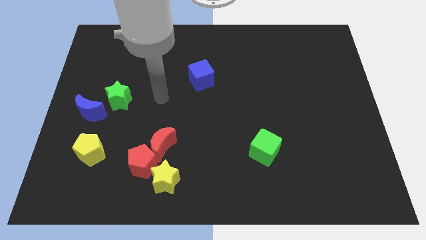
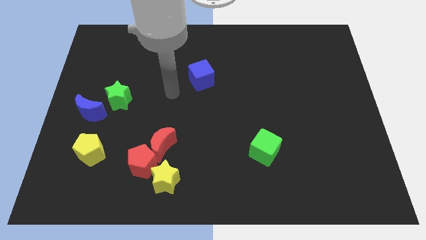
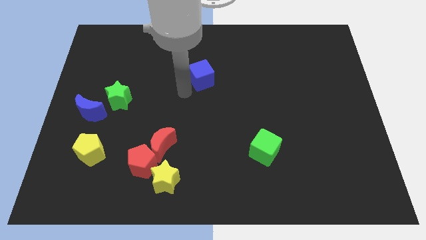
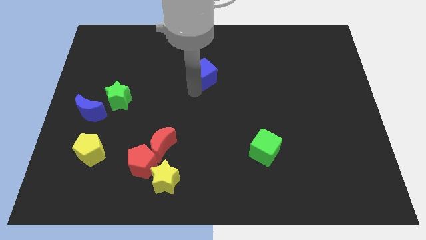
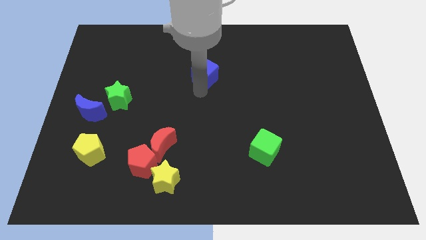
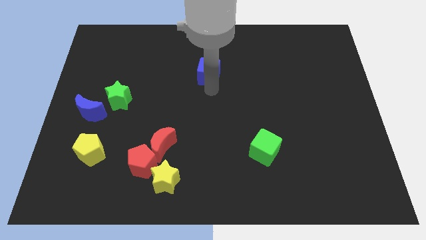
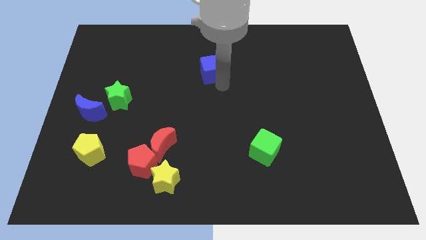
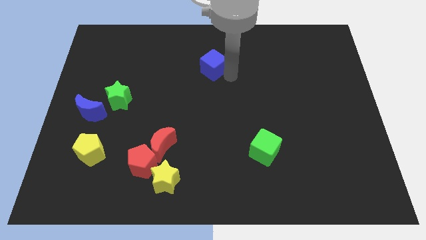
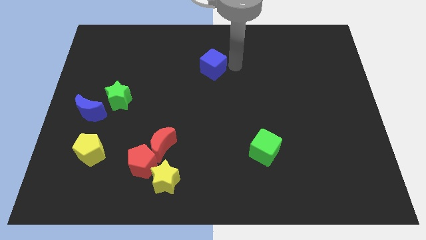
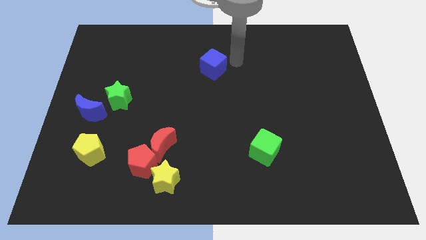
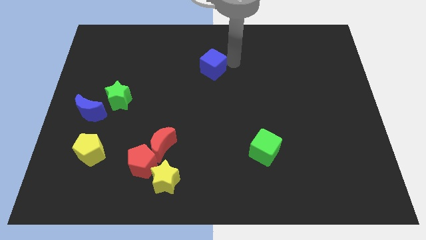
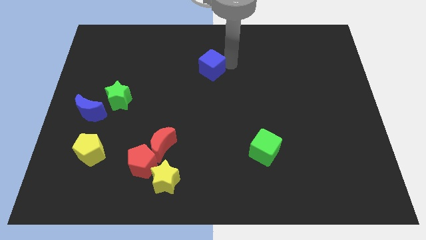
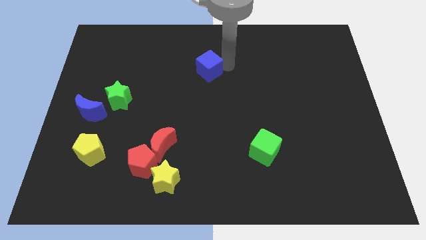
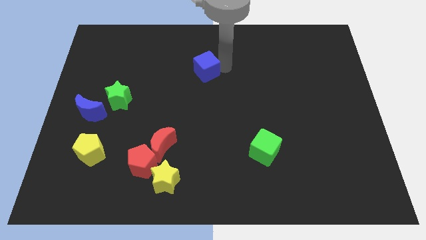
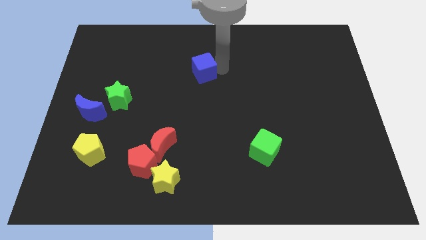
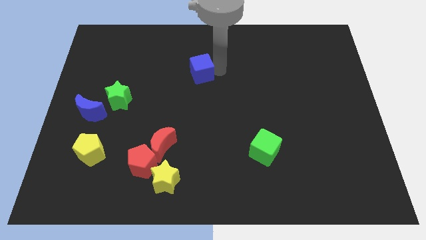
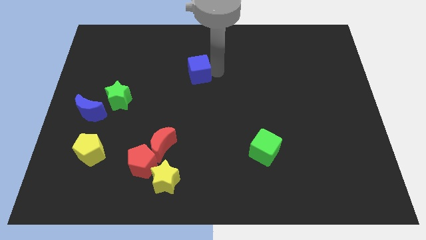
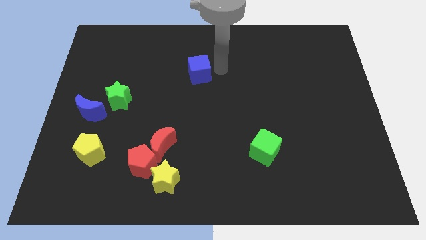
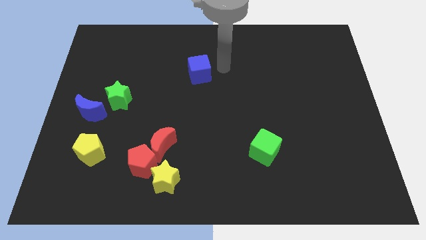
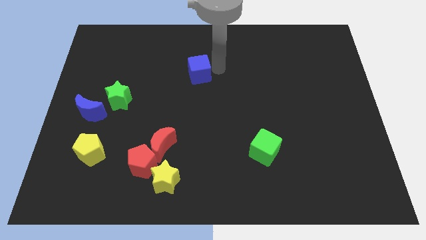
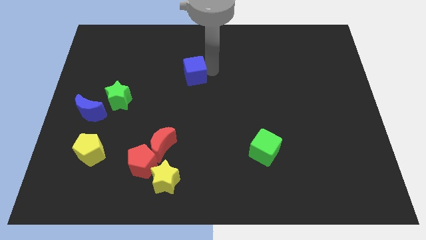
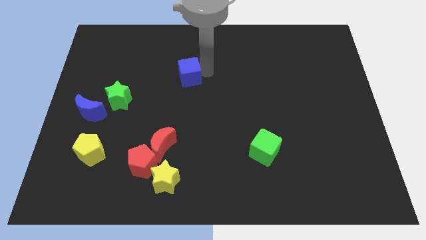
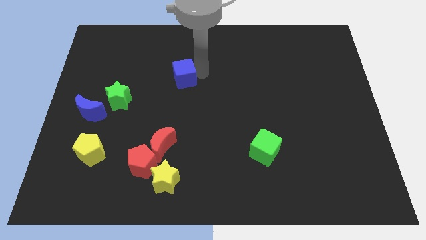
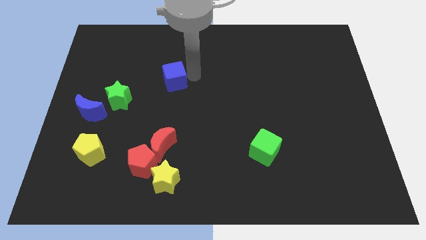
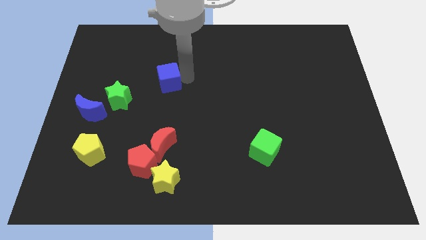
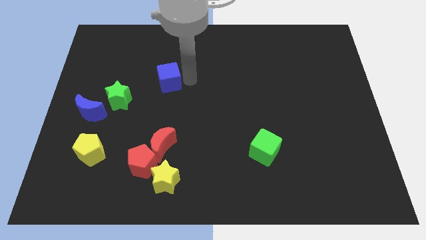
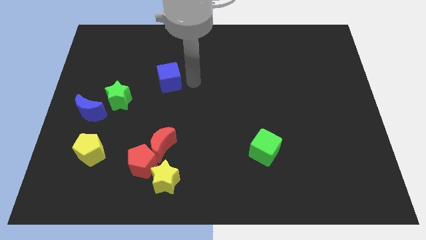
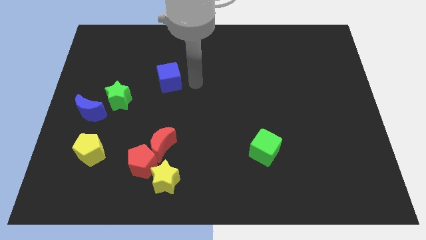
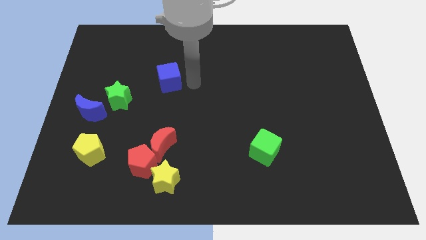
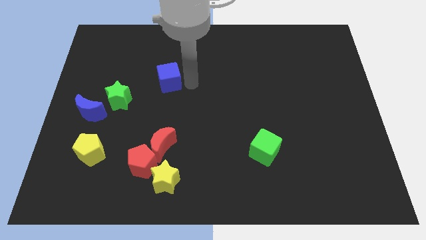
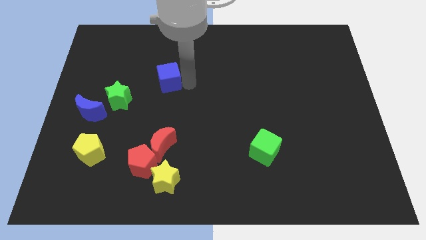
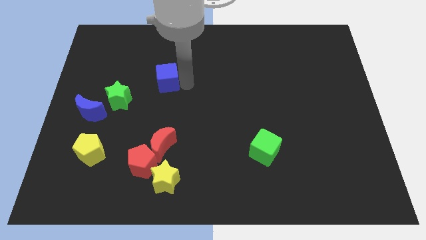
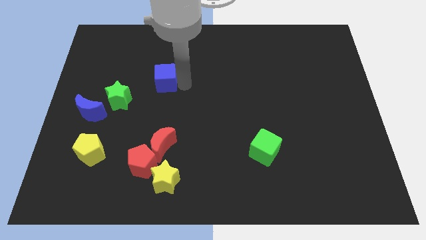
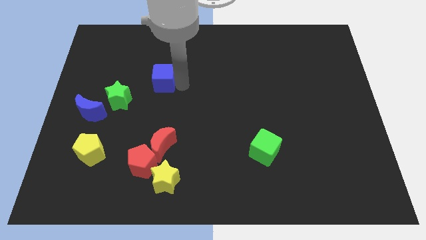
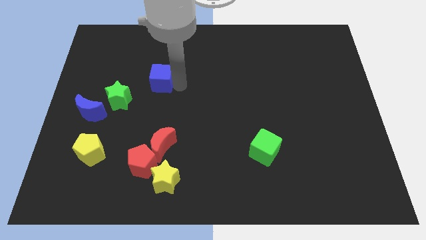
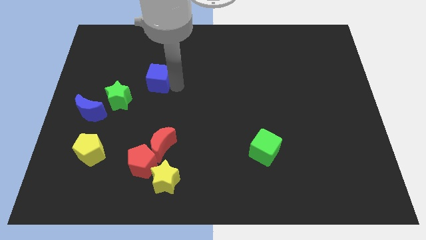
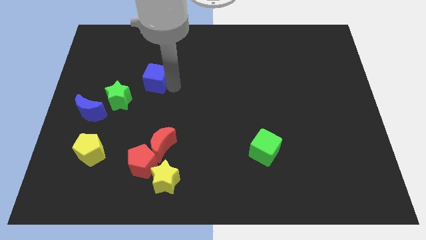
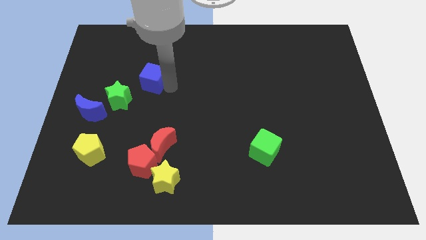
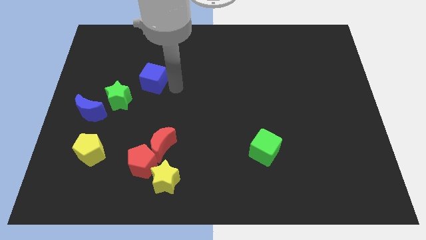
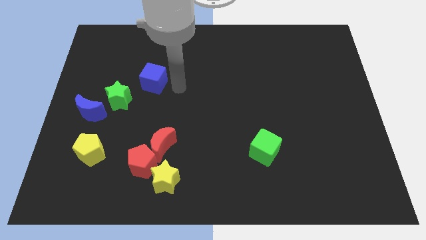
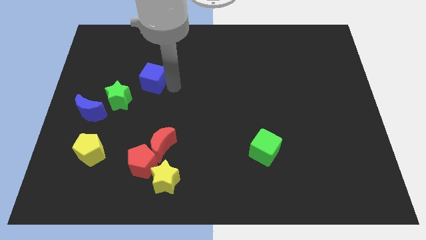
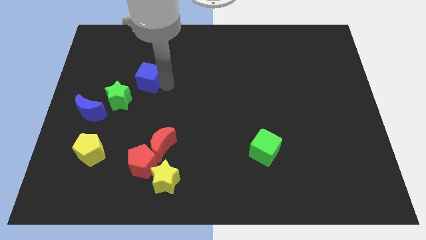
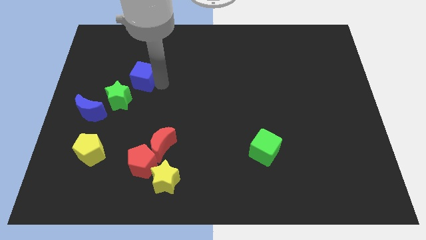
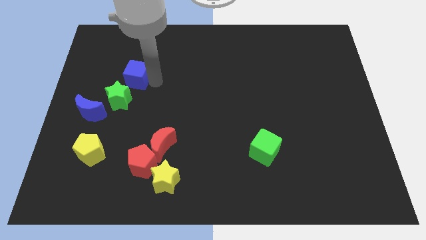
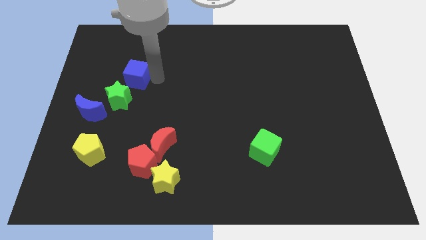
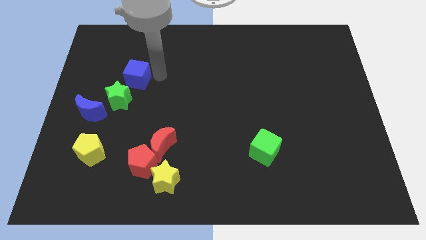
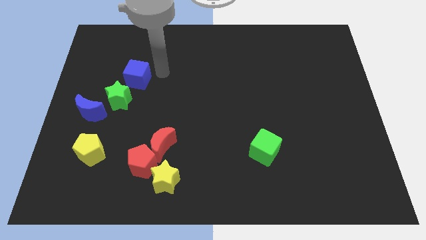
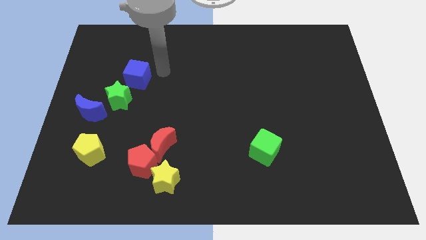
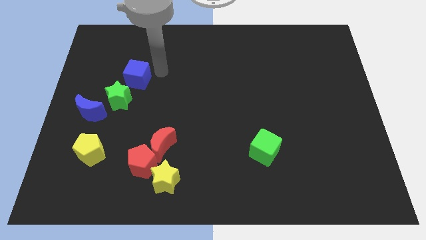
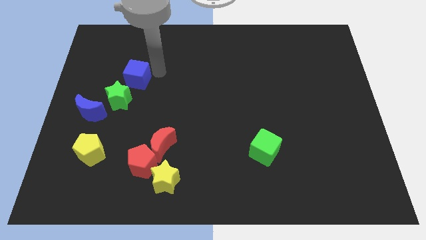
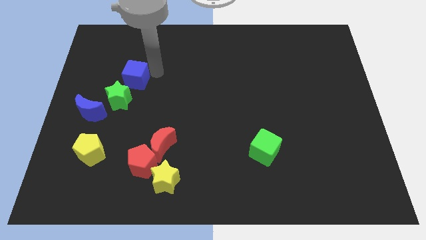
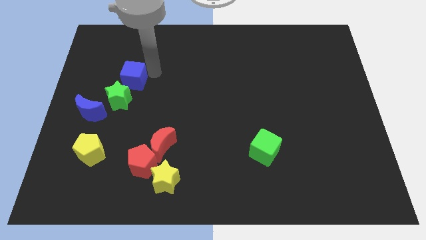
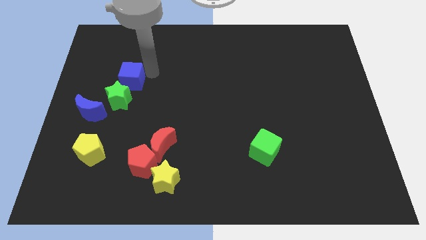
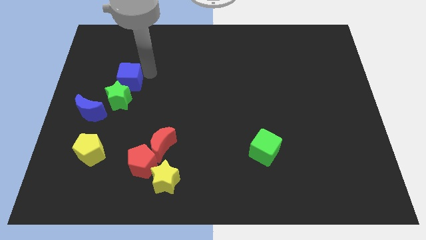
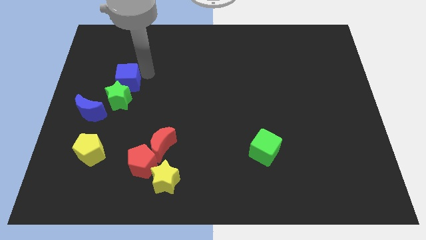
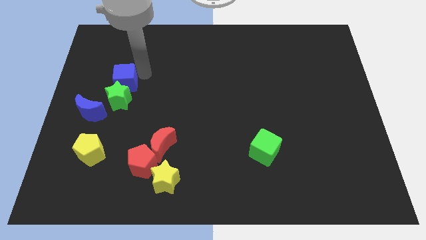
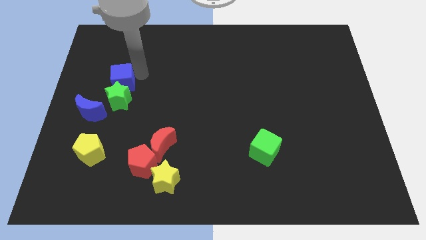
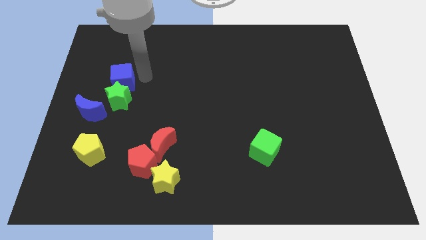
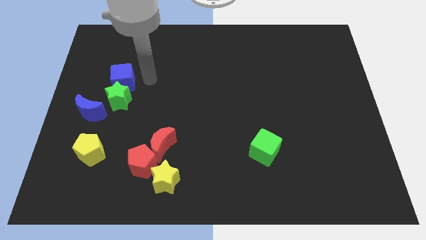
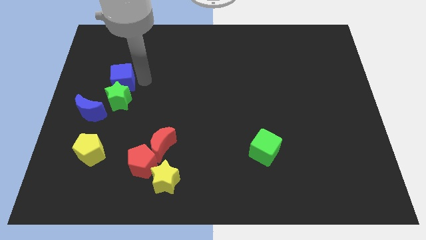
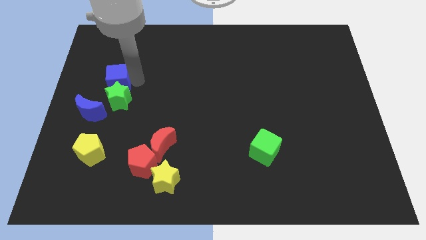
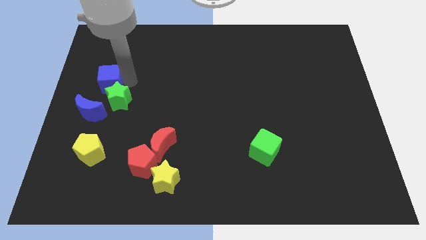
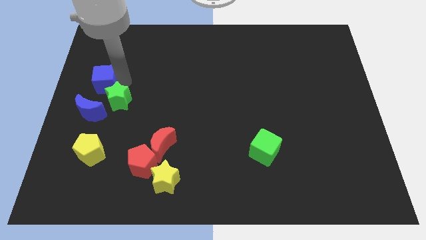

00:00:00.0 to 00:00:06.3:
push the blue cube to the center left
